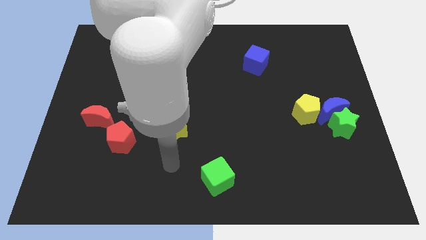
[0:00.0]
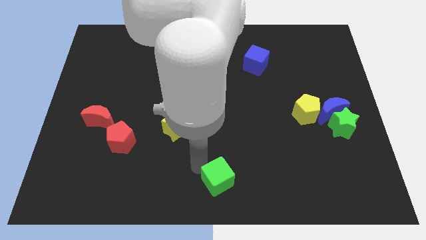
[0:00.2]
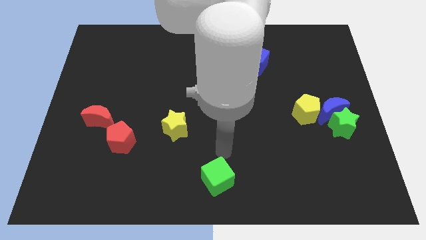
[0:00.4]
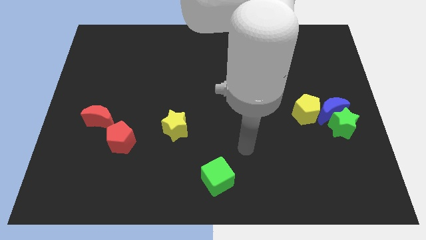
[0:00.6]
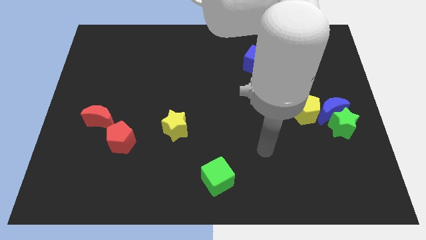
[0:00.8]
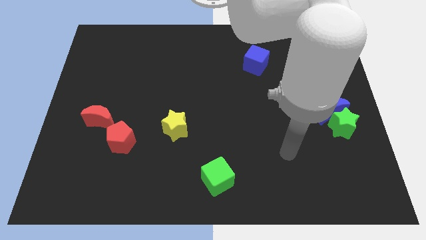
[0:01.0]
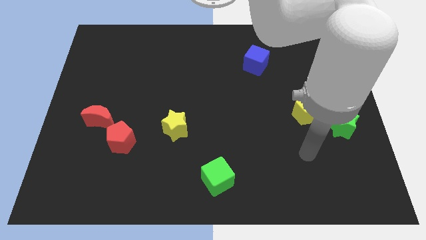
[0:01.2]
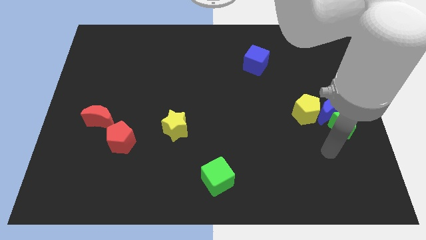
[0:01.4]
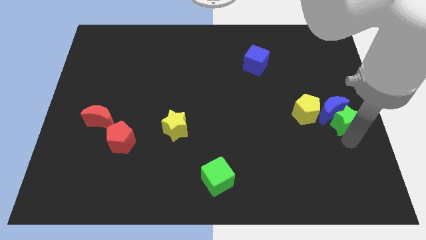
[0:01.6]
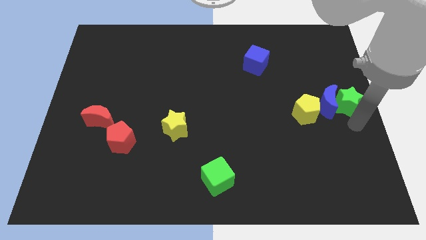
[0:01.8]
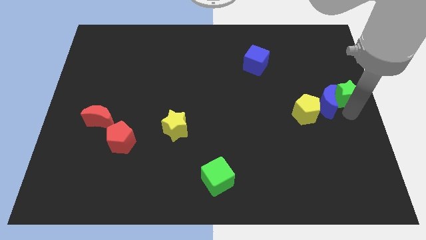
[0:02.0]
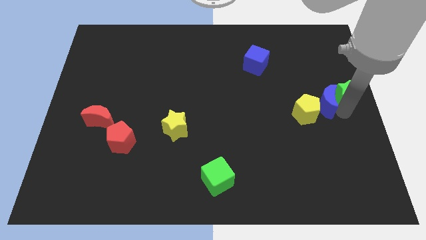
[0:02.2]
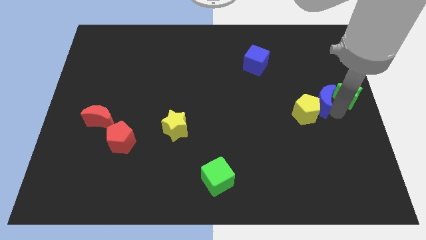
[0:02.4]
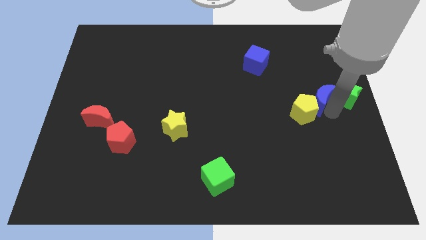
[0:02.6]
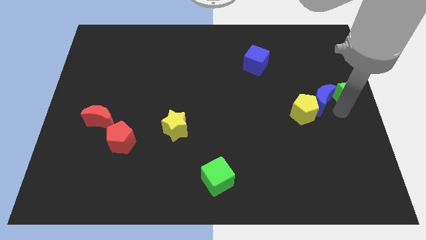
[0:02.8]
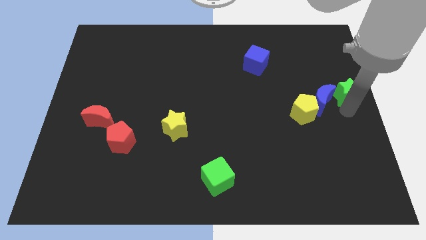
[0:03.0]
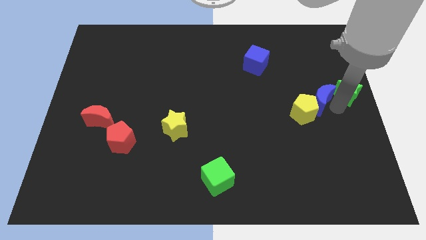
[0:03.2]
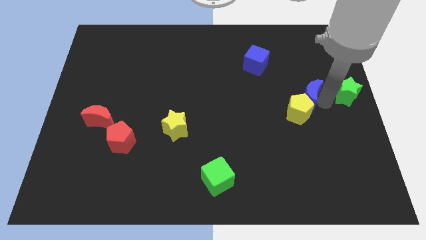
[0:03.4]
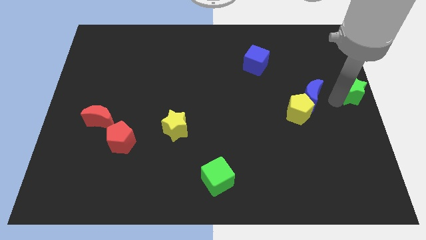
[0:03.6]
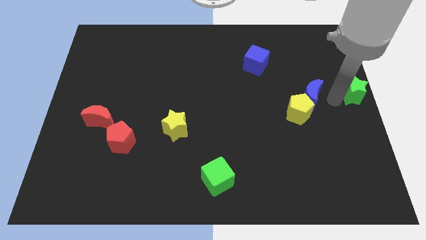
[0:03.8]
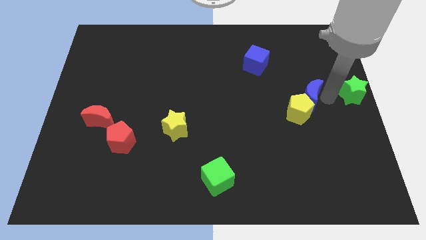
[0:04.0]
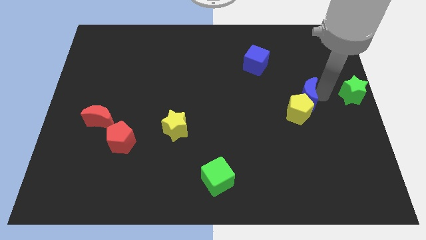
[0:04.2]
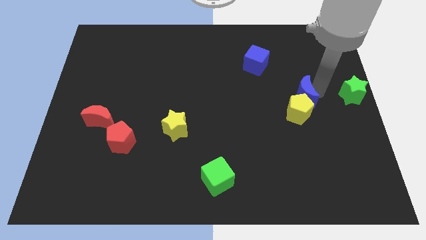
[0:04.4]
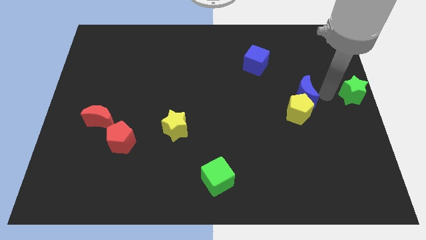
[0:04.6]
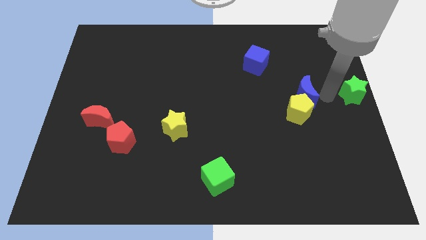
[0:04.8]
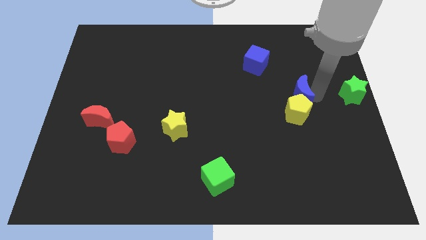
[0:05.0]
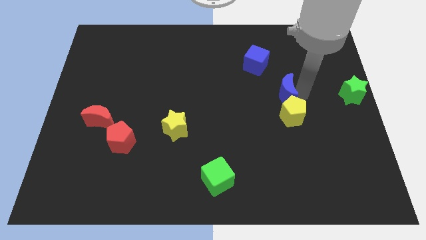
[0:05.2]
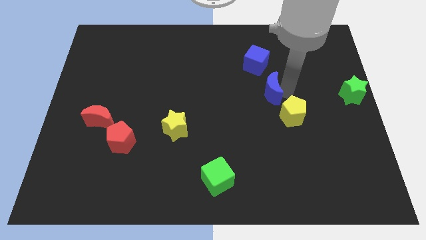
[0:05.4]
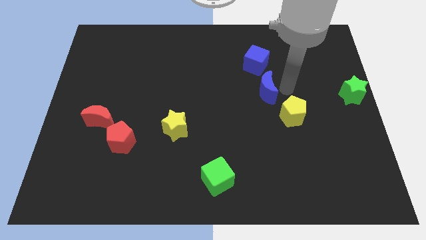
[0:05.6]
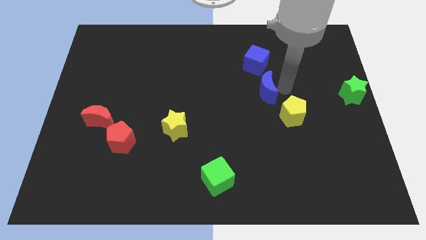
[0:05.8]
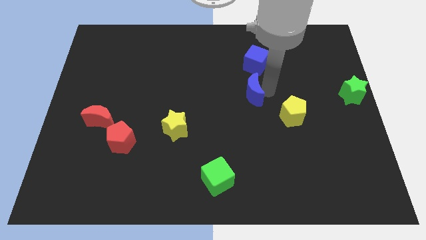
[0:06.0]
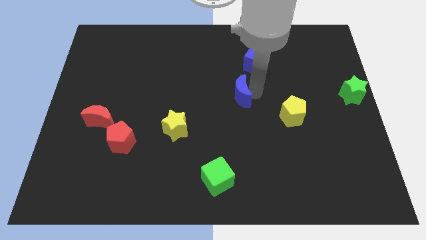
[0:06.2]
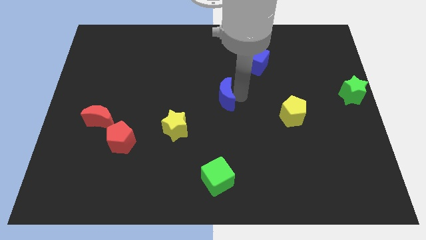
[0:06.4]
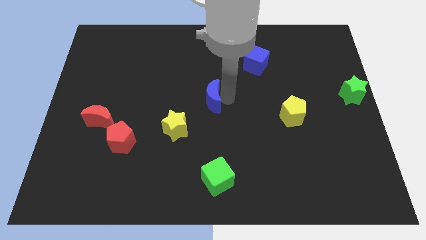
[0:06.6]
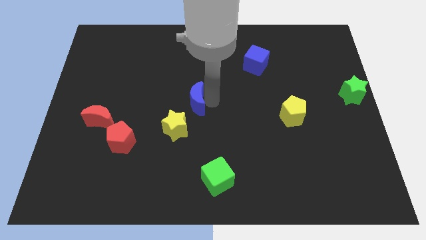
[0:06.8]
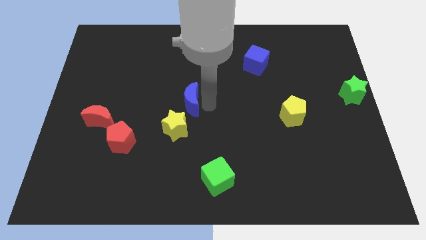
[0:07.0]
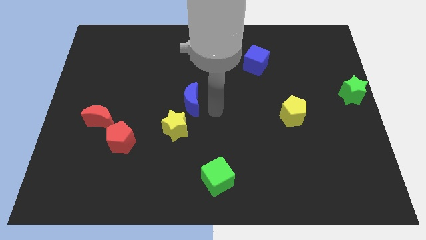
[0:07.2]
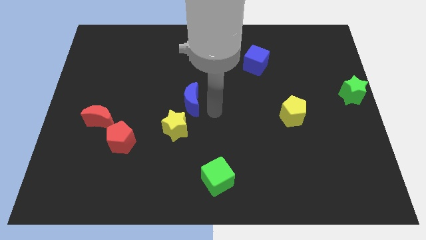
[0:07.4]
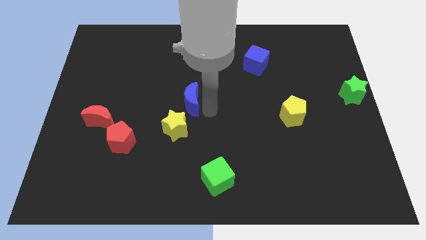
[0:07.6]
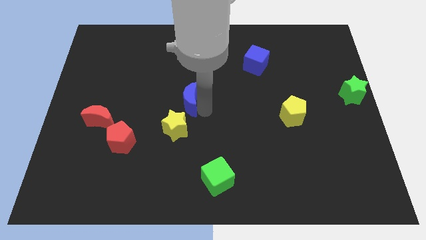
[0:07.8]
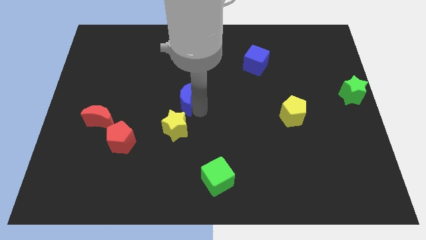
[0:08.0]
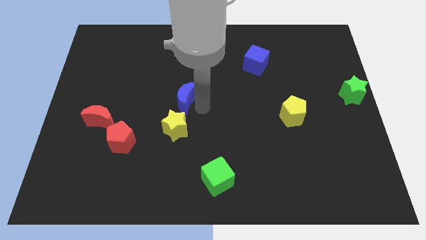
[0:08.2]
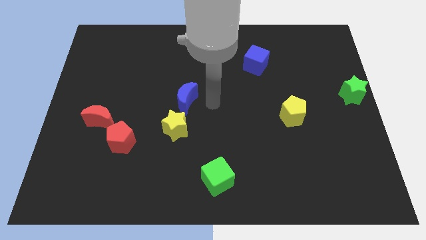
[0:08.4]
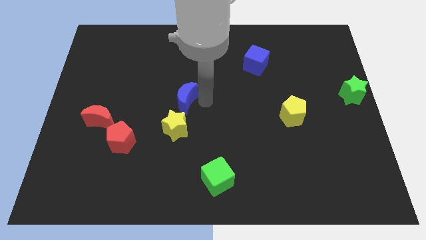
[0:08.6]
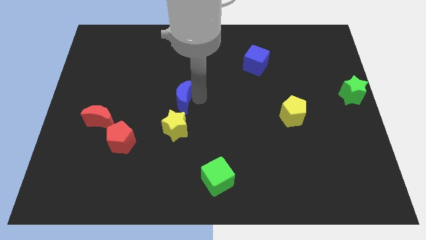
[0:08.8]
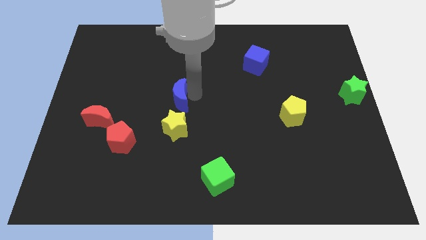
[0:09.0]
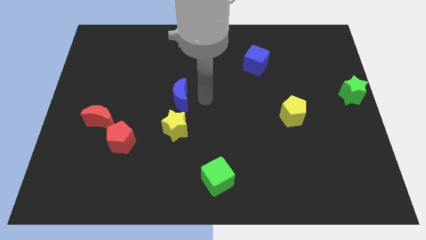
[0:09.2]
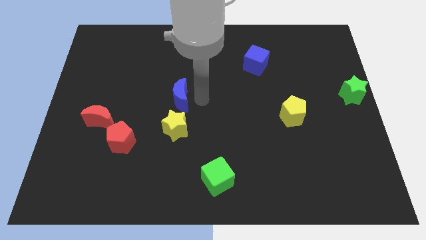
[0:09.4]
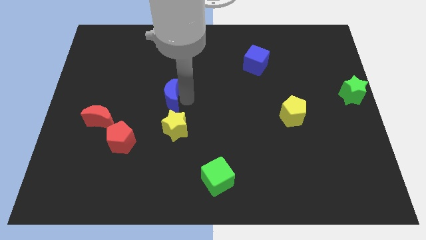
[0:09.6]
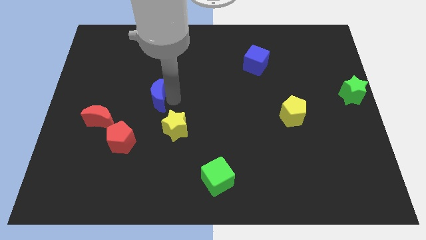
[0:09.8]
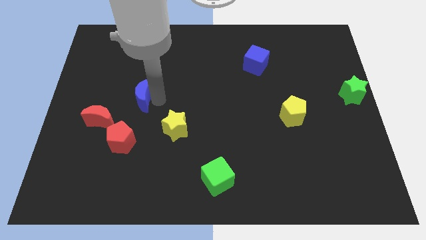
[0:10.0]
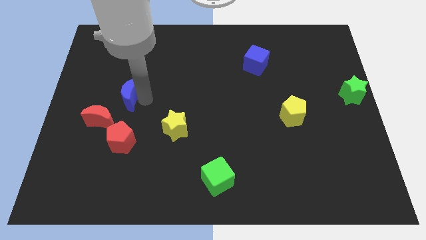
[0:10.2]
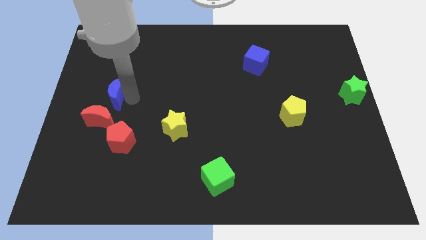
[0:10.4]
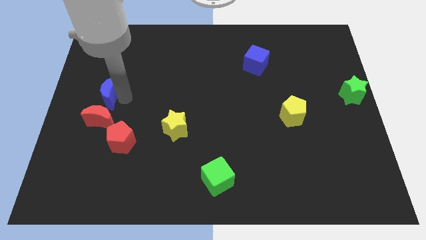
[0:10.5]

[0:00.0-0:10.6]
put the blue moon to the center left
